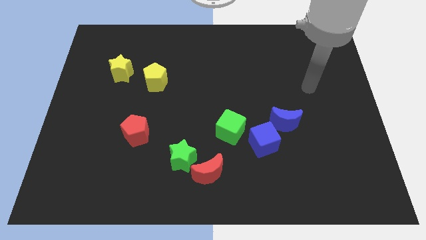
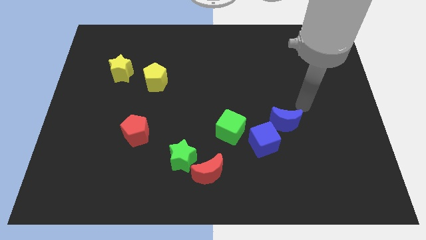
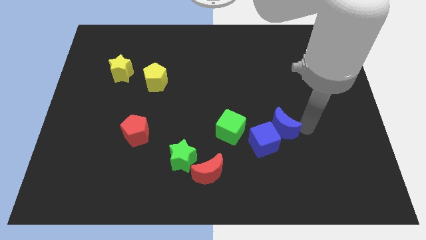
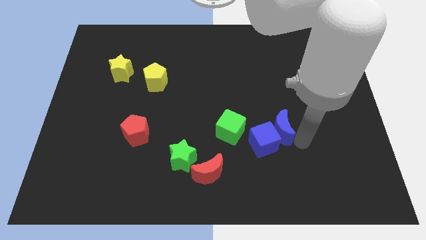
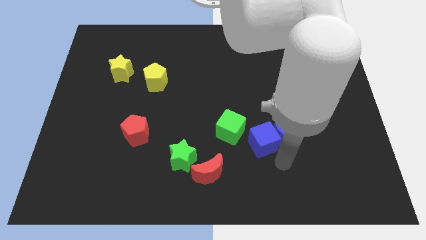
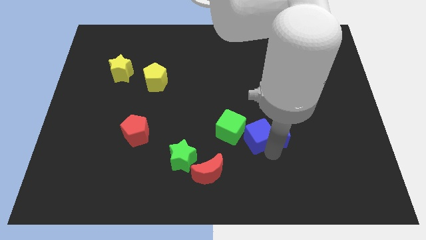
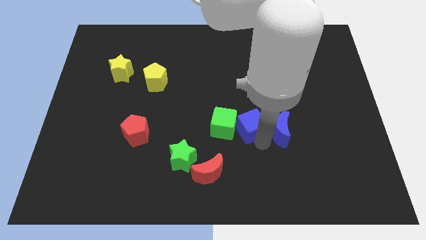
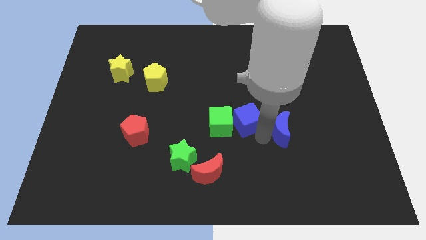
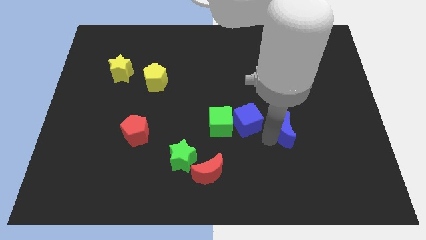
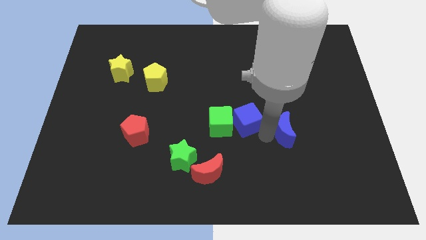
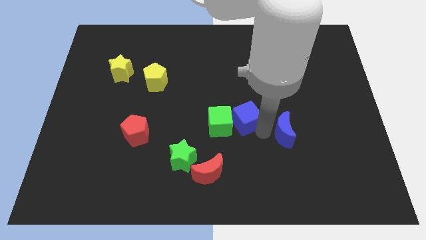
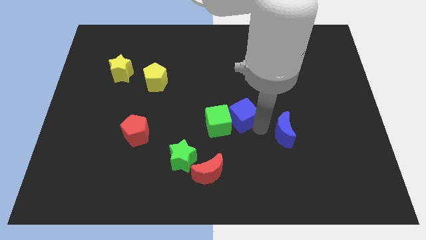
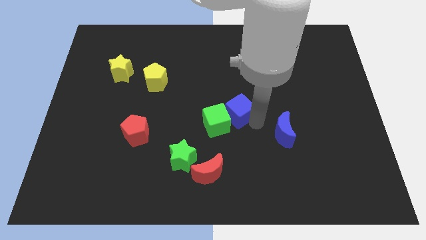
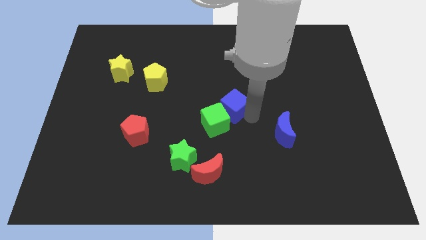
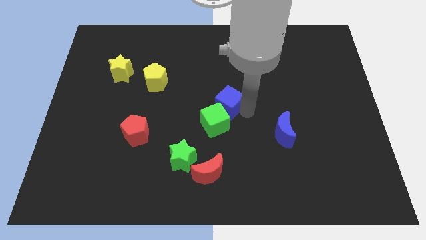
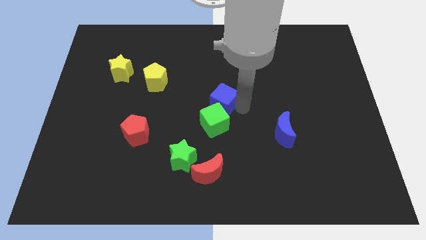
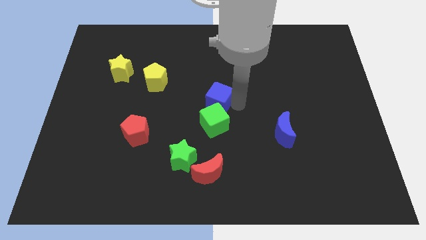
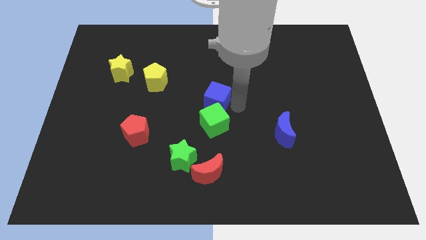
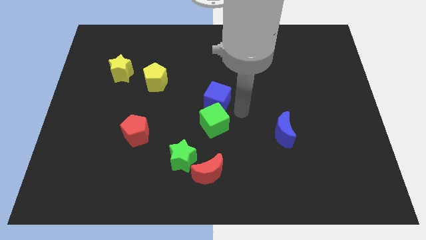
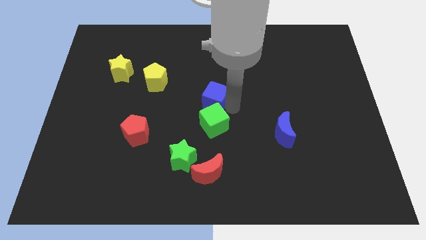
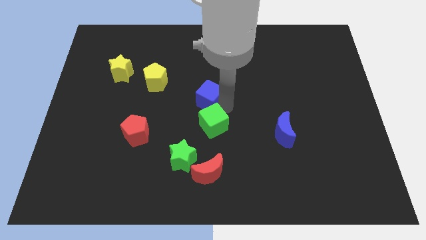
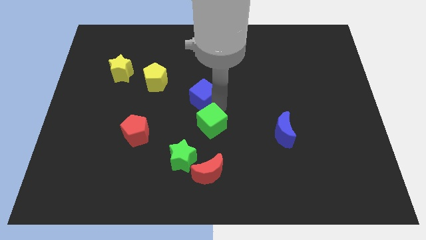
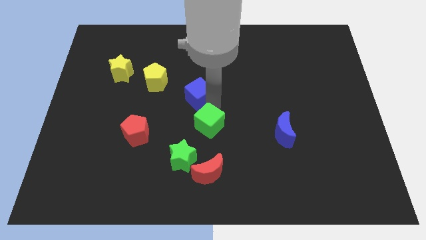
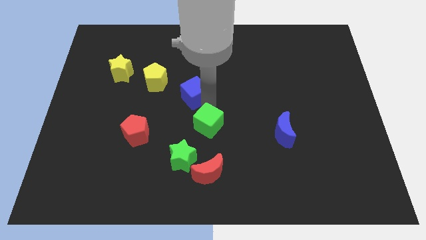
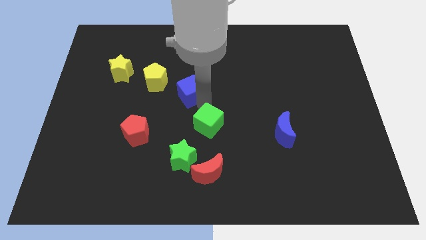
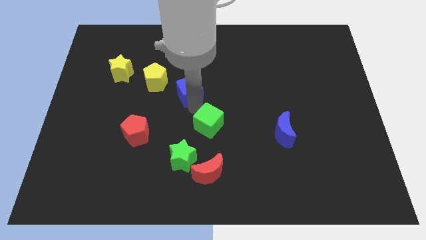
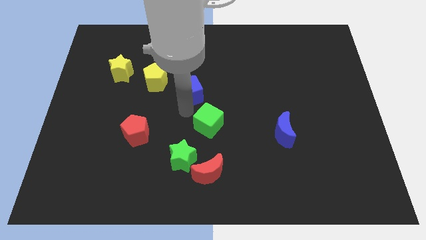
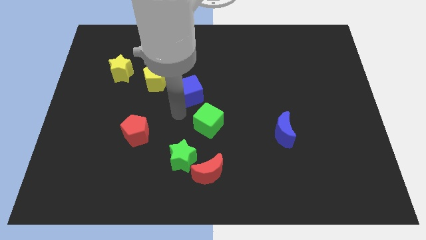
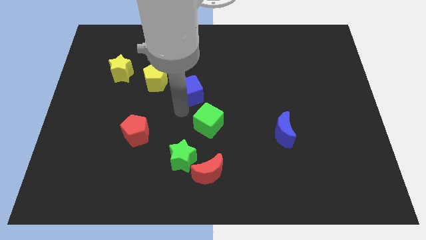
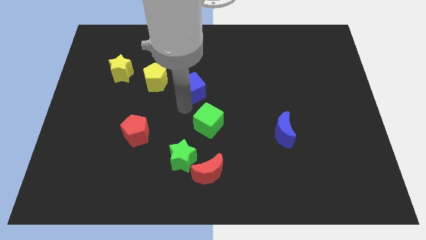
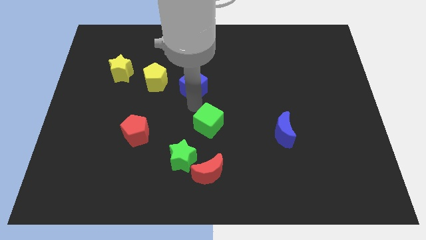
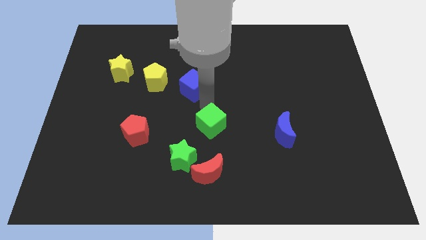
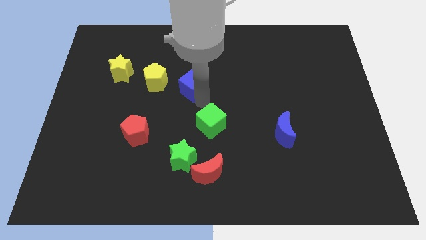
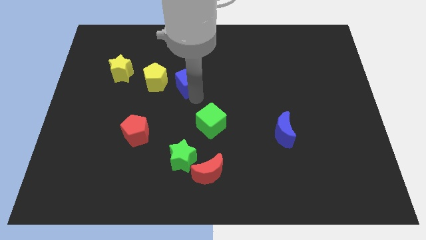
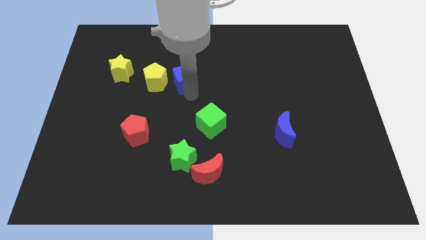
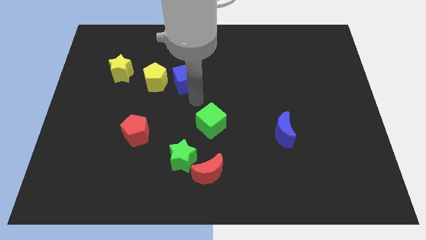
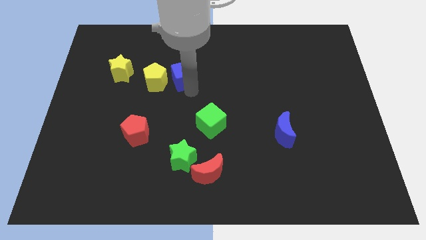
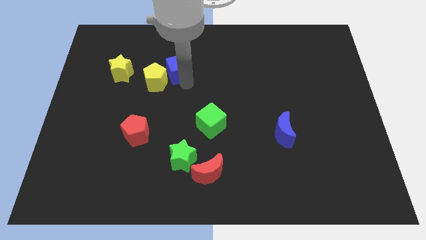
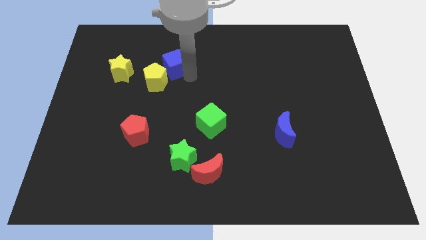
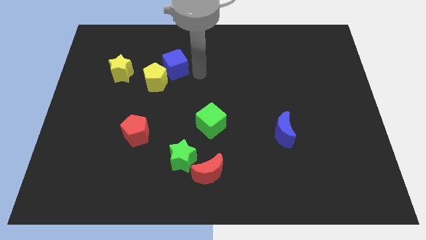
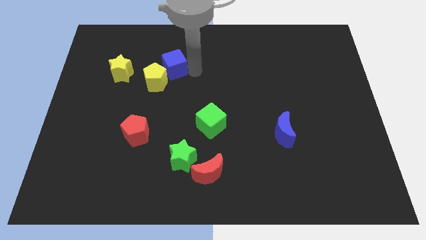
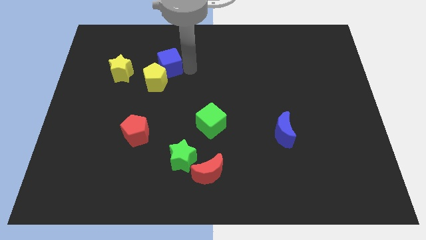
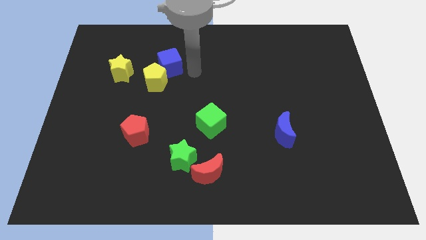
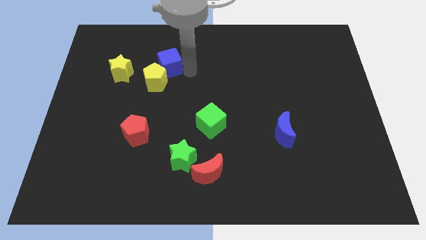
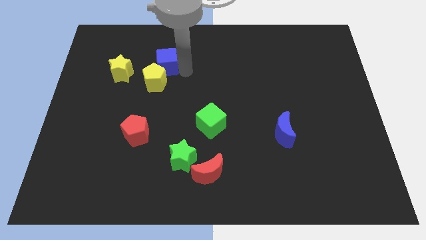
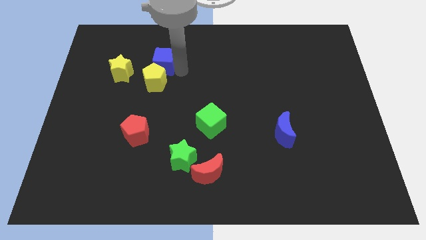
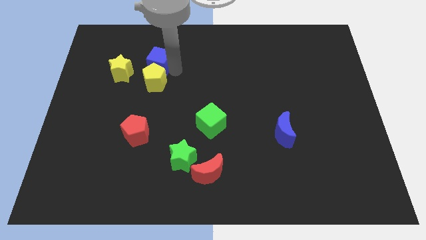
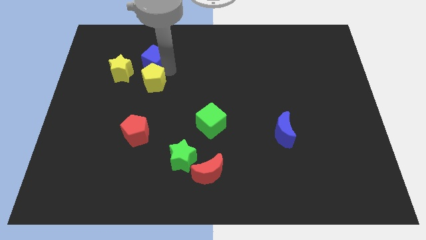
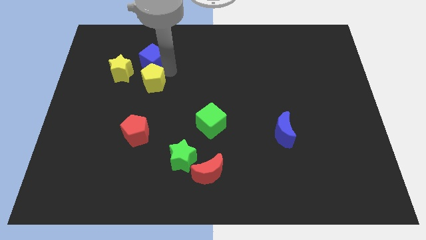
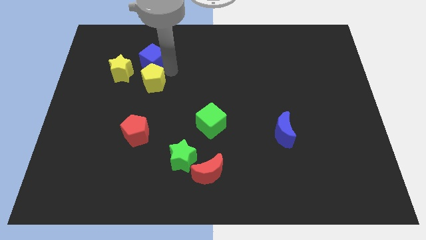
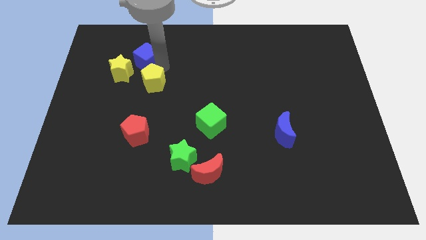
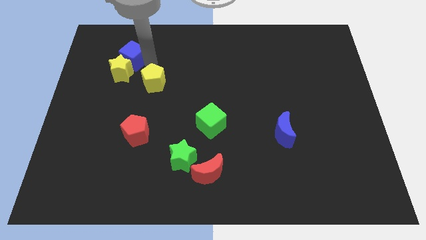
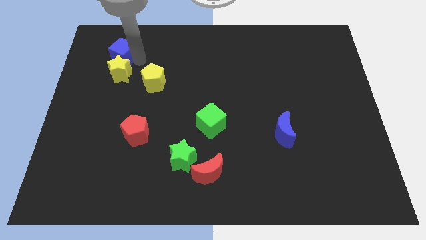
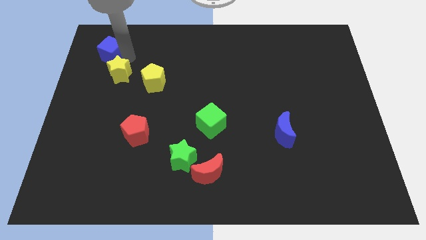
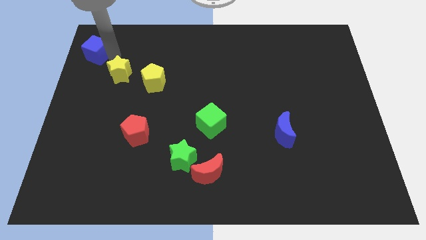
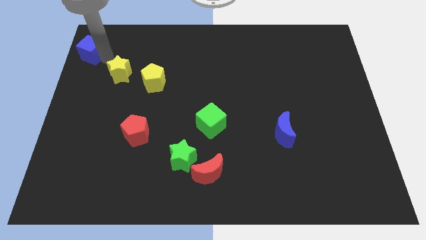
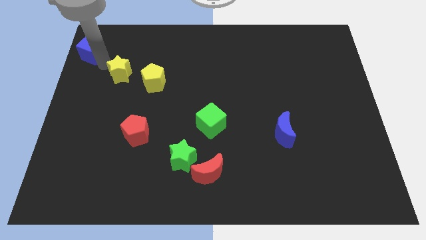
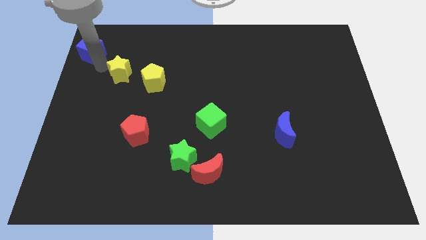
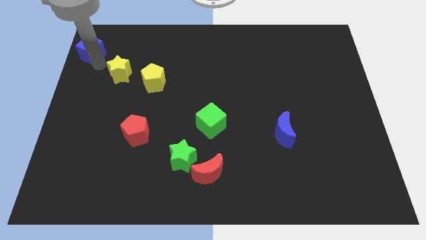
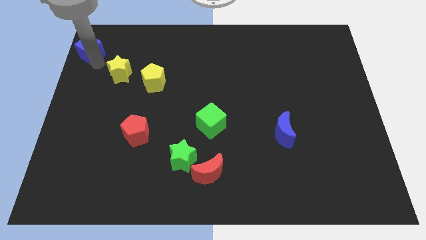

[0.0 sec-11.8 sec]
move the blue cube to the upper left corner
